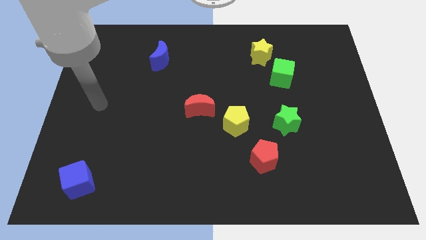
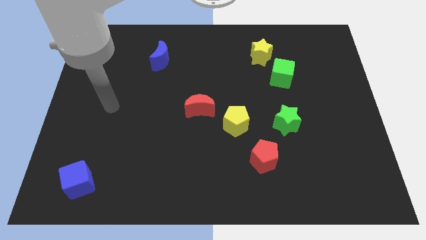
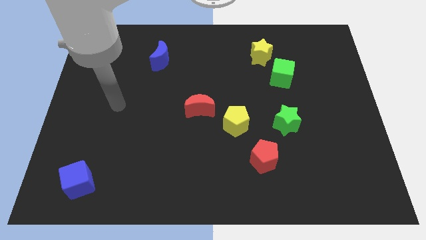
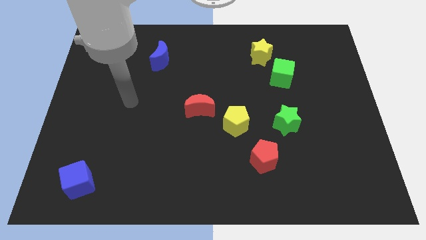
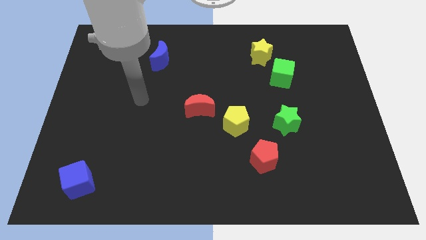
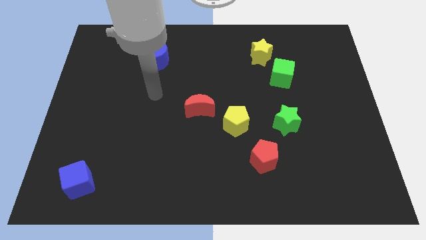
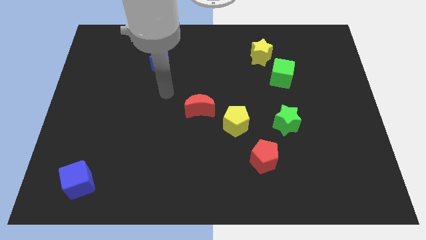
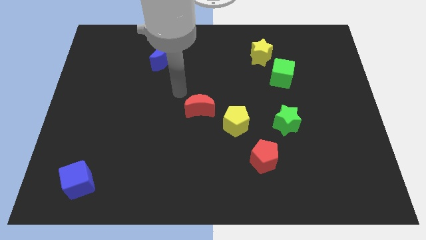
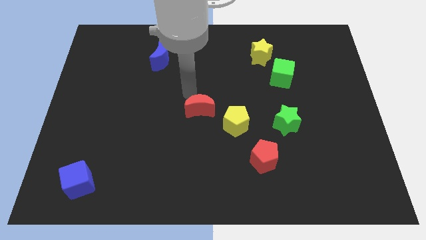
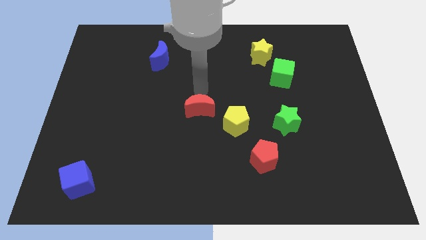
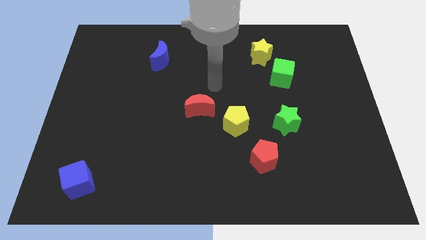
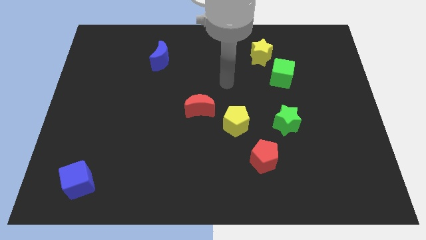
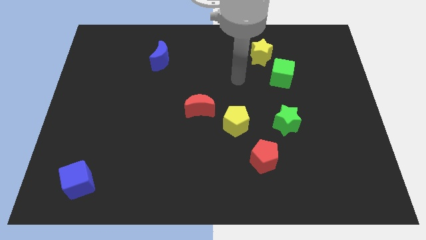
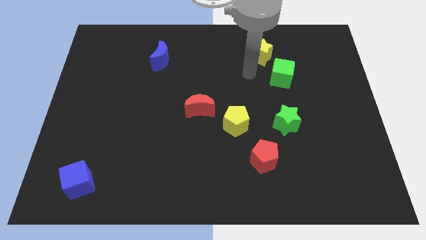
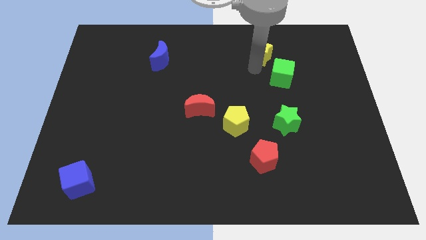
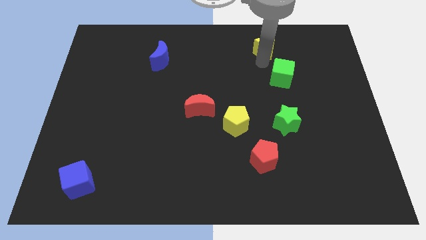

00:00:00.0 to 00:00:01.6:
move the green cube away from the yellow star

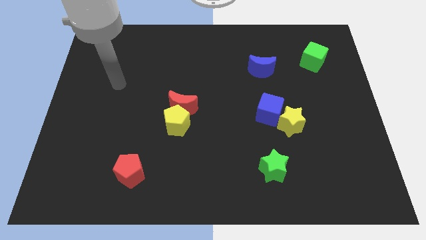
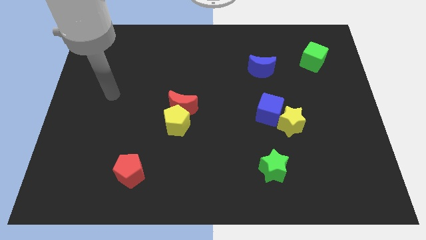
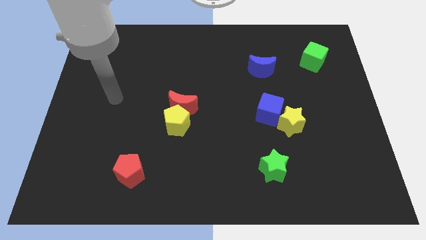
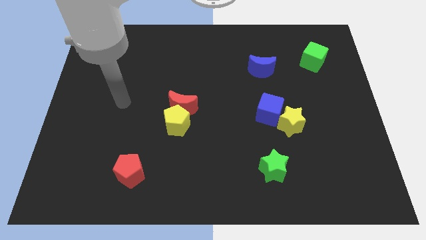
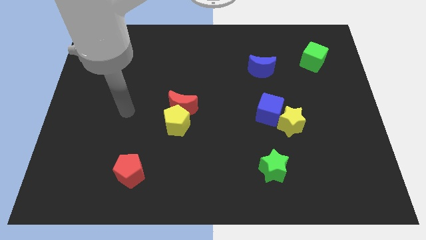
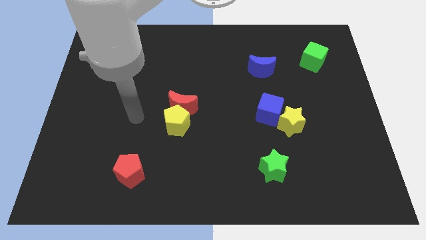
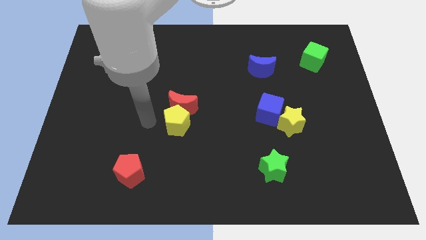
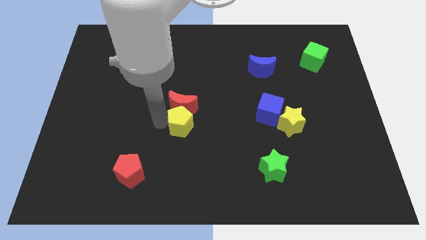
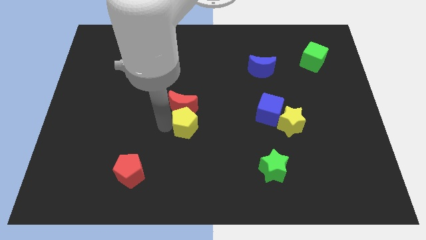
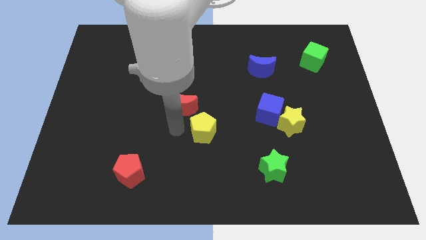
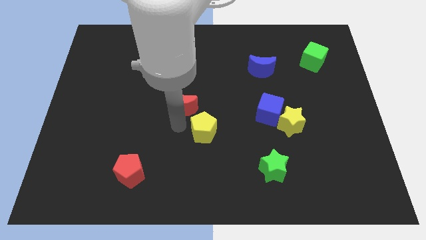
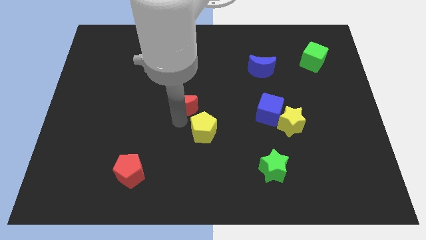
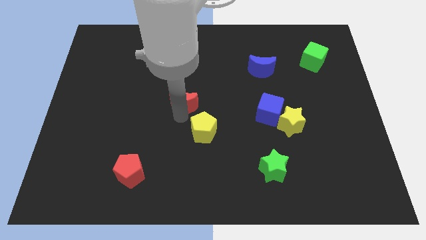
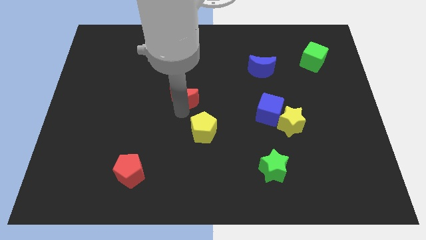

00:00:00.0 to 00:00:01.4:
separate the red moon from the yellow pentagon

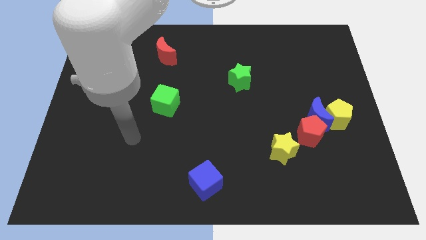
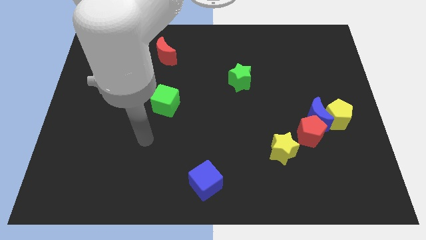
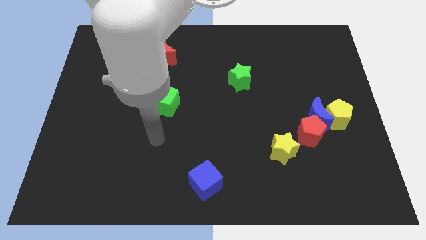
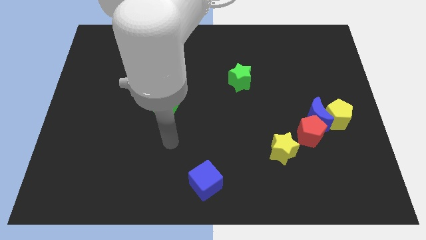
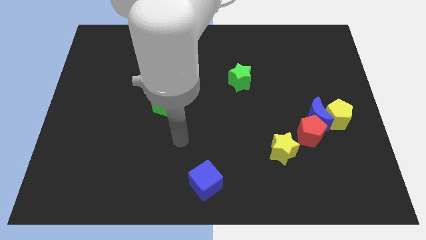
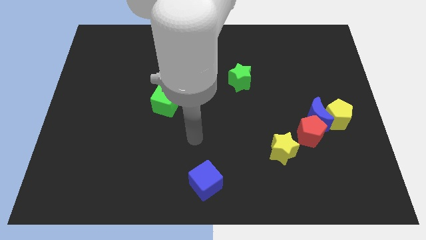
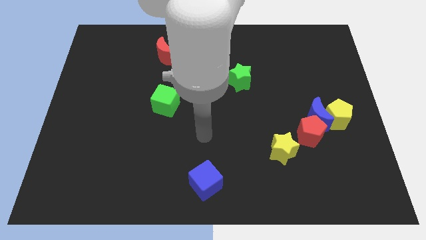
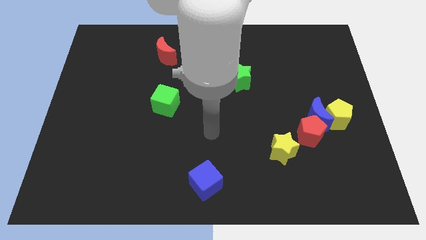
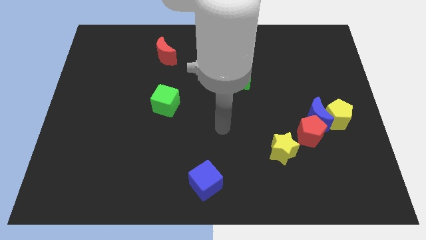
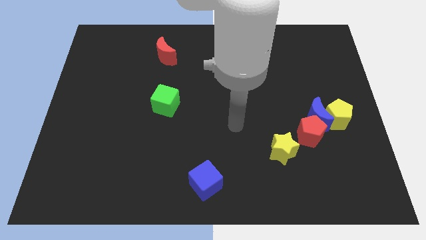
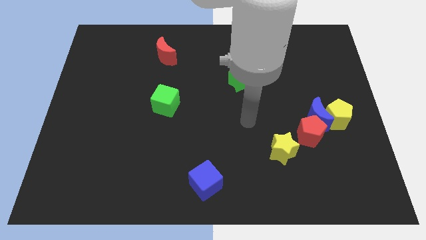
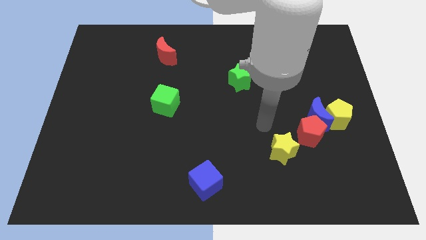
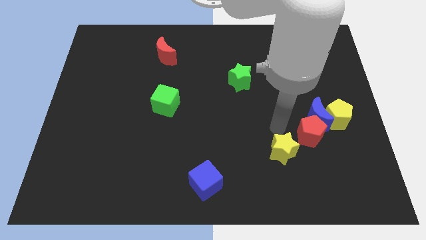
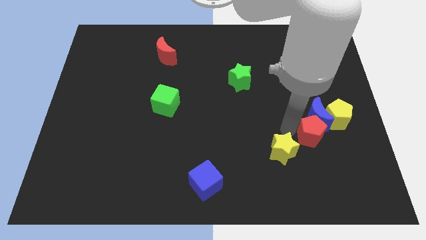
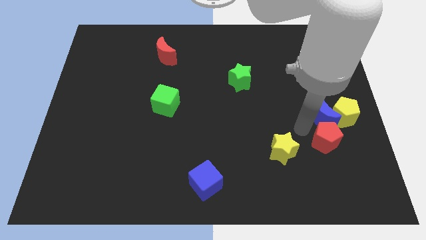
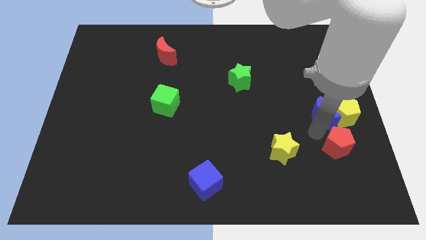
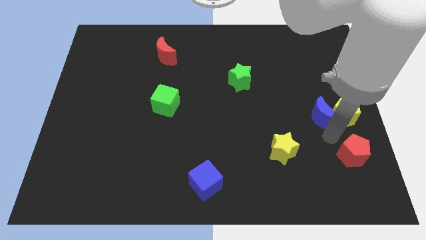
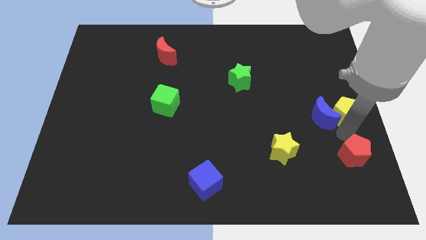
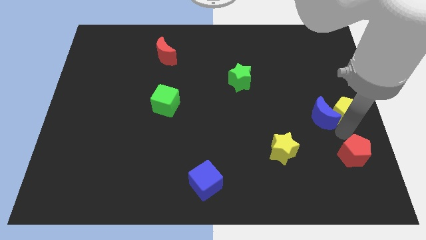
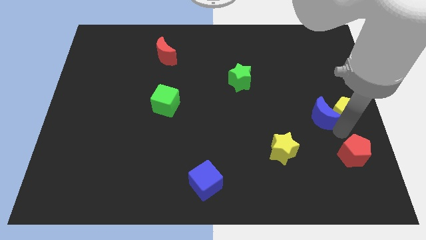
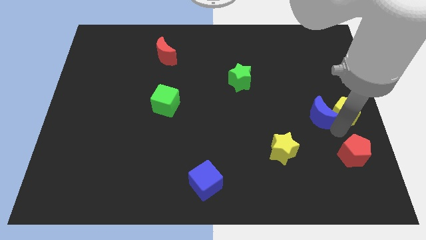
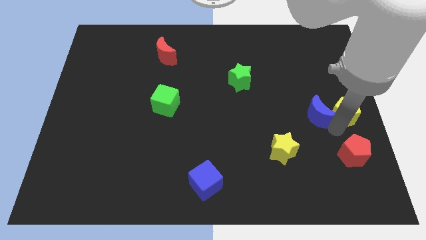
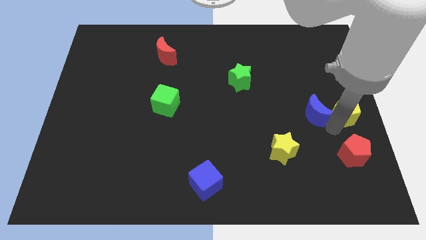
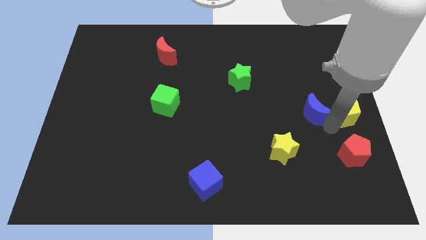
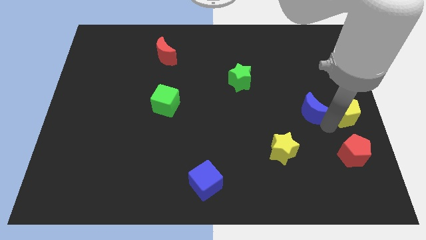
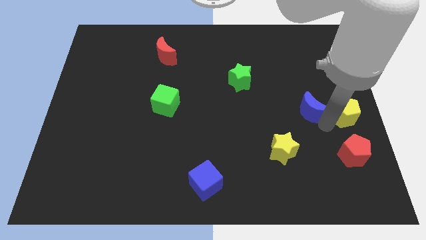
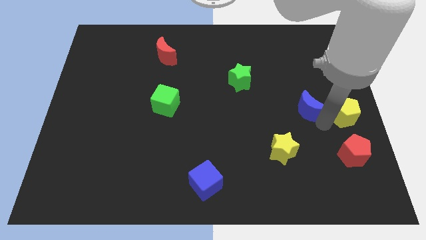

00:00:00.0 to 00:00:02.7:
move the blue moon away from the yellow pentagon and red pentagon

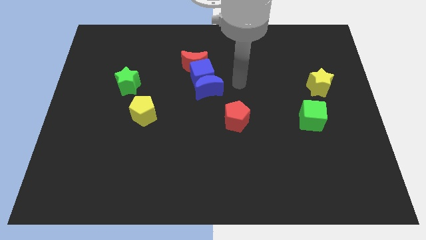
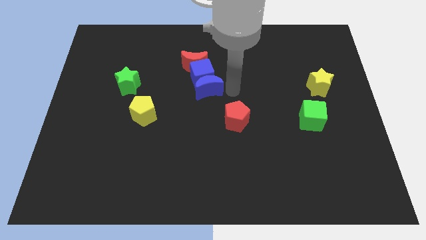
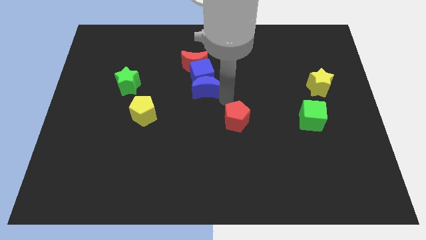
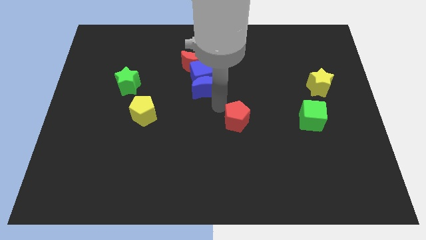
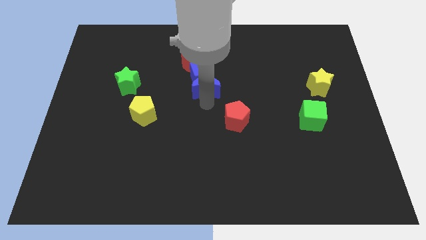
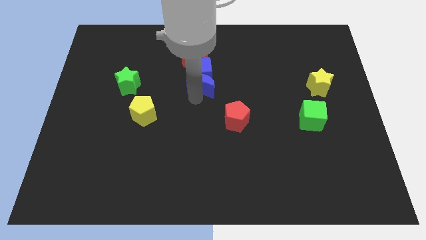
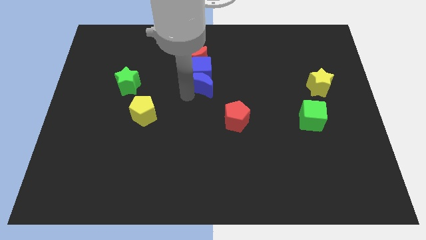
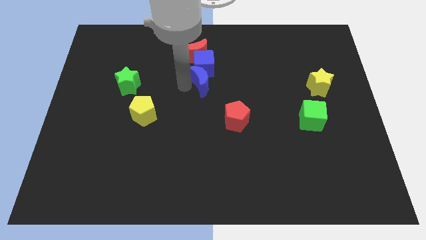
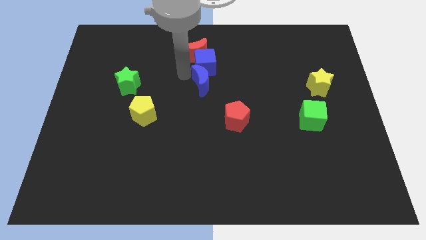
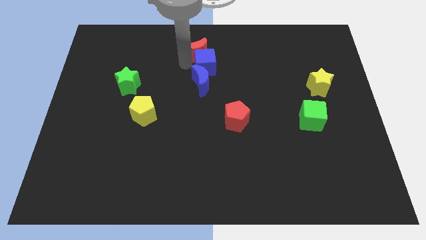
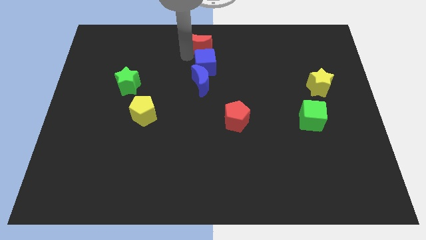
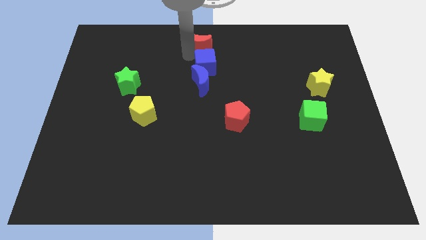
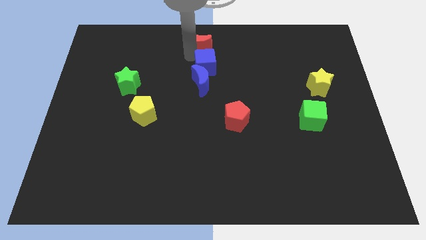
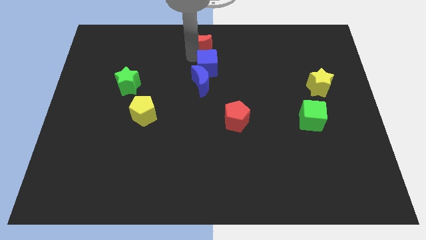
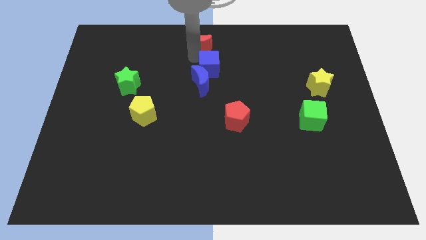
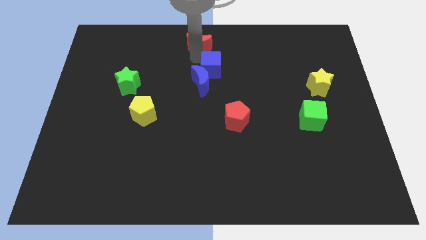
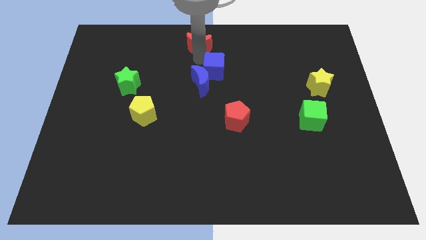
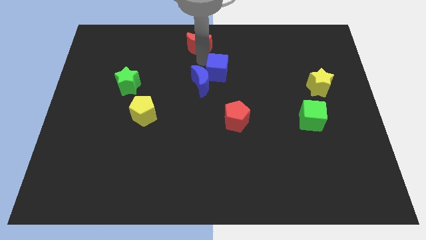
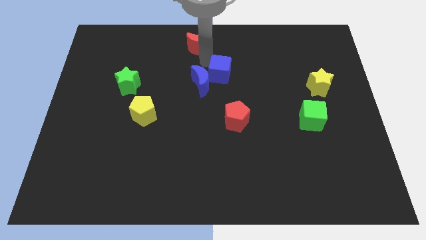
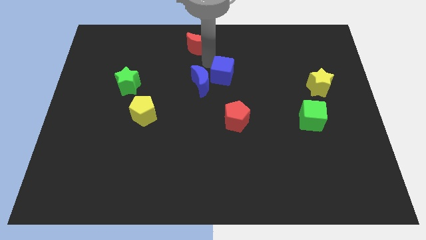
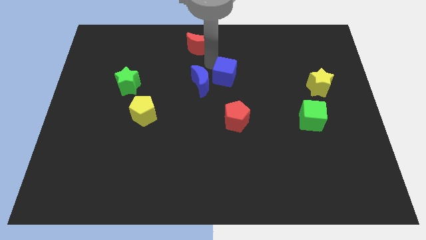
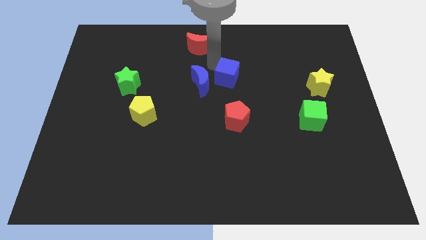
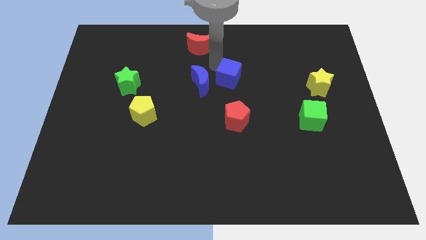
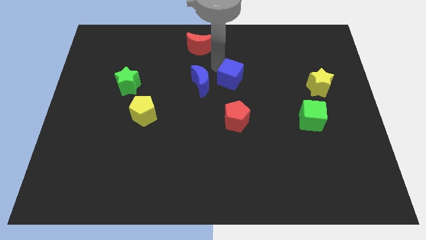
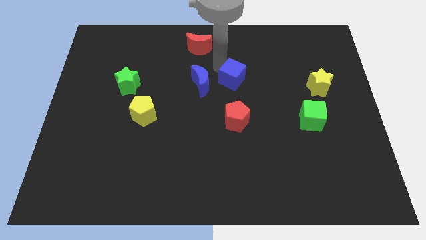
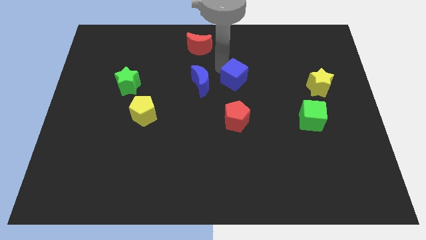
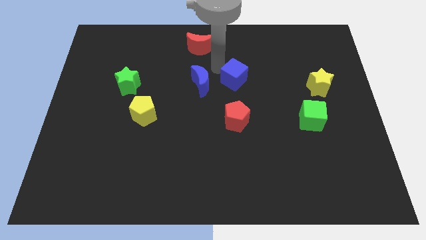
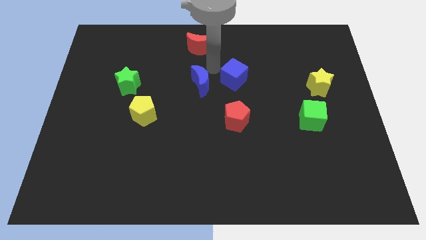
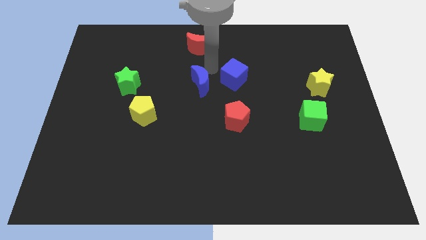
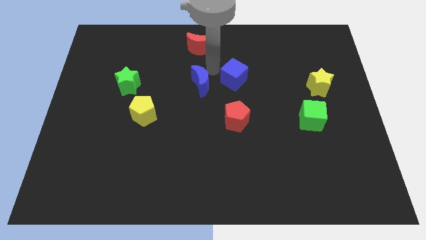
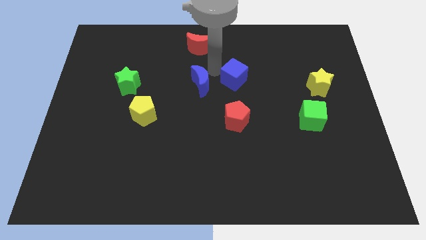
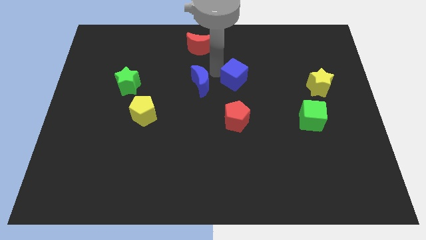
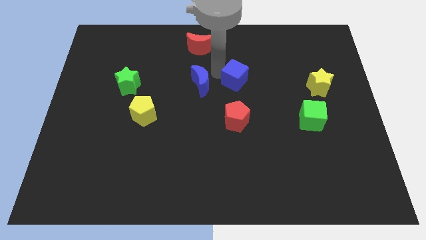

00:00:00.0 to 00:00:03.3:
move the blue cube away from the blue moon and red moon

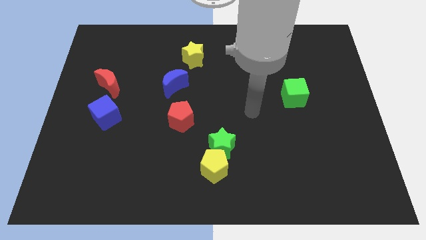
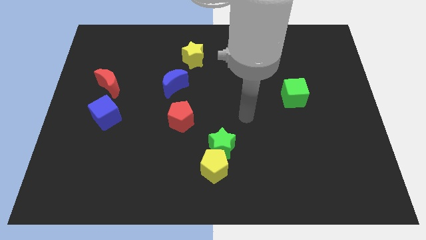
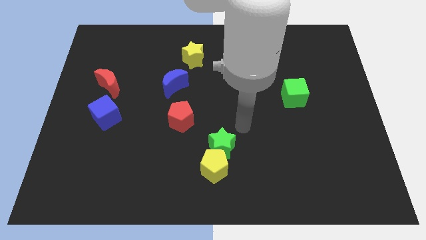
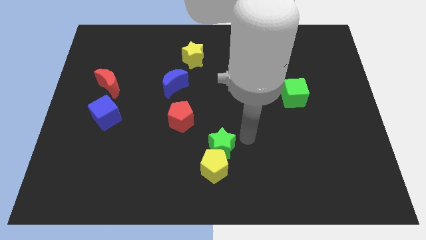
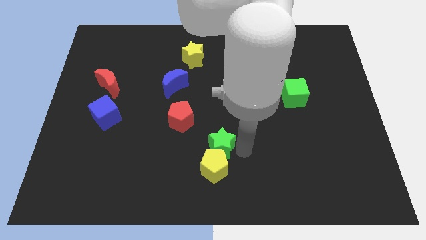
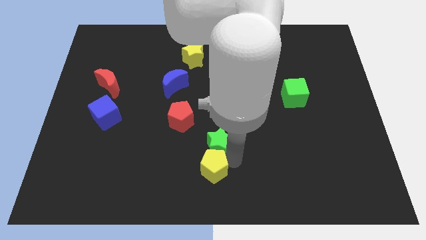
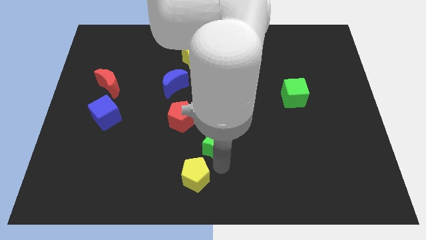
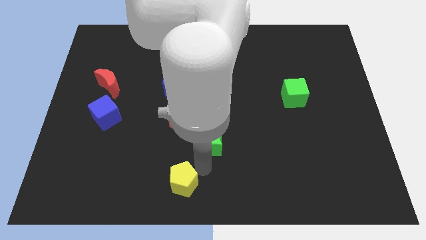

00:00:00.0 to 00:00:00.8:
pull the green star apart from the yellow pentagon
